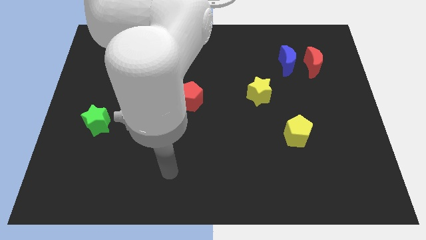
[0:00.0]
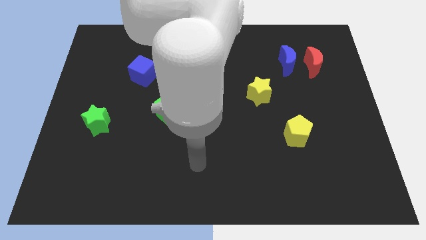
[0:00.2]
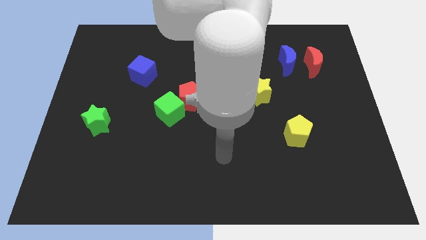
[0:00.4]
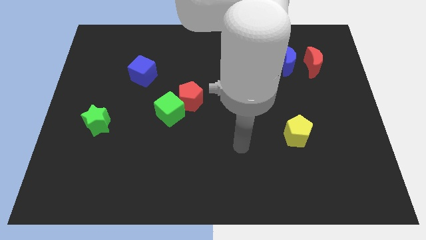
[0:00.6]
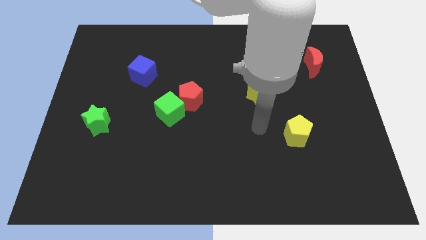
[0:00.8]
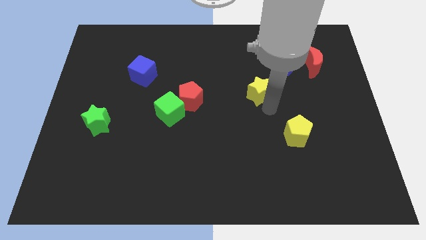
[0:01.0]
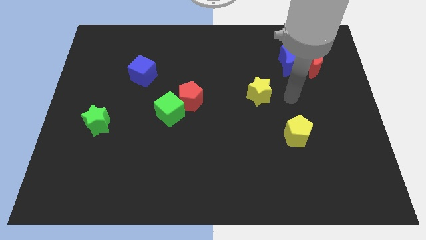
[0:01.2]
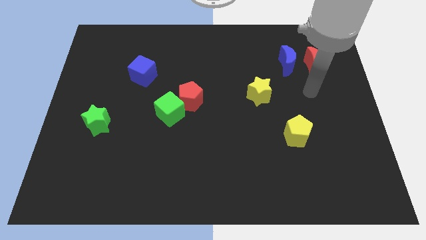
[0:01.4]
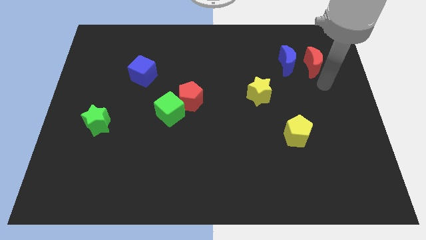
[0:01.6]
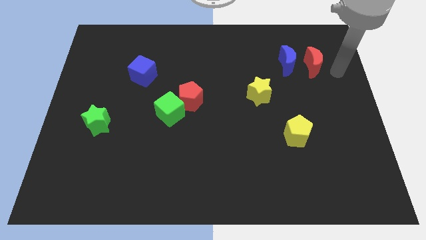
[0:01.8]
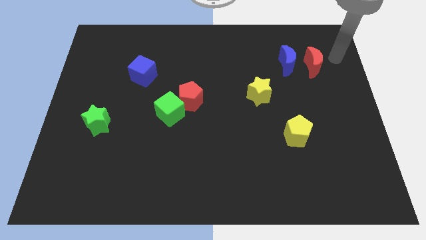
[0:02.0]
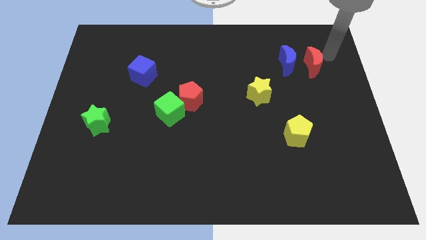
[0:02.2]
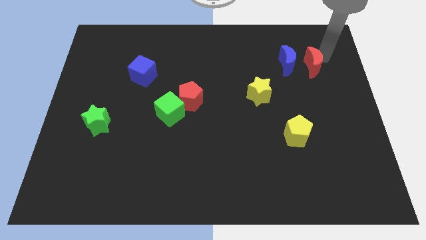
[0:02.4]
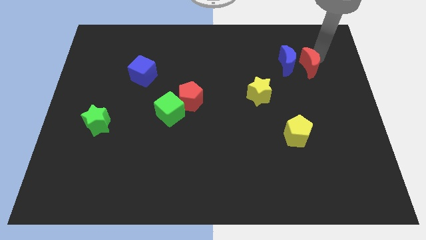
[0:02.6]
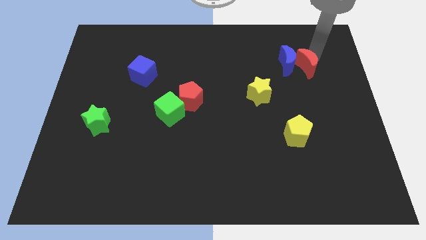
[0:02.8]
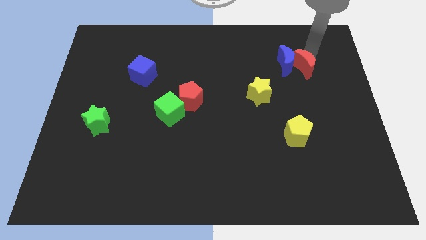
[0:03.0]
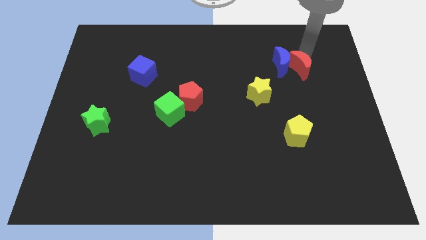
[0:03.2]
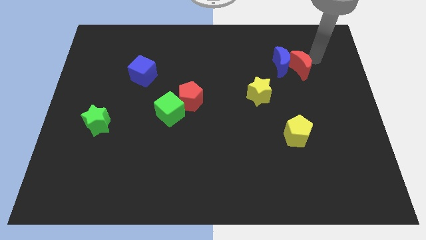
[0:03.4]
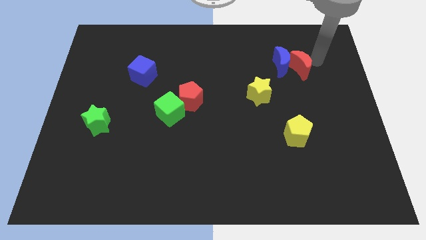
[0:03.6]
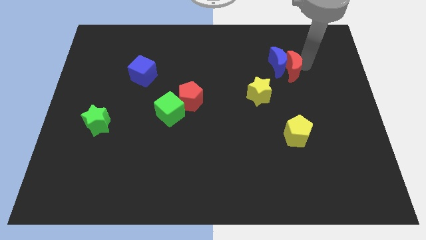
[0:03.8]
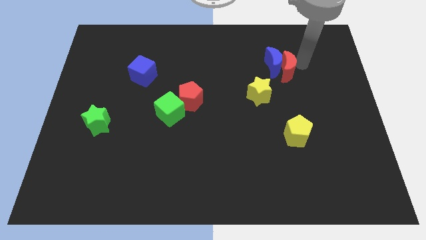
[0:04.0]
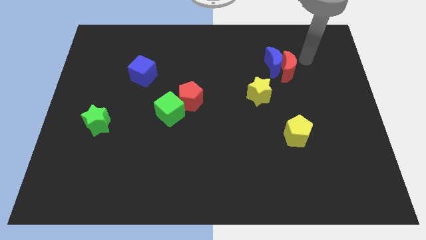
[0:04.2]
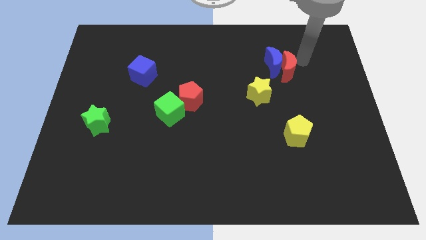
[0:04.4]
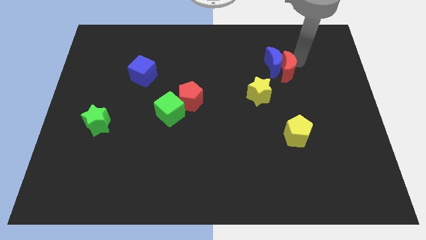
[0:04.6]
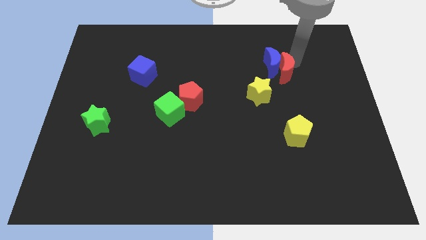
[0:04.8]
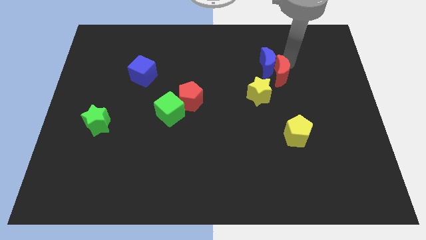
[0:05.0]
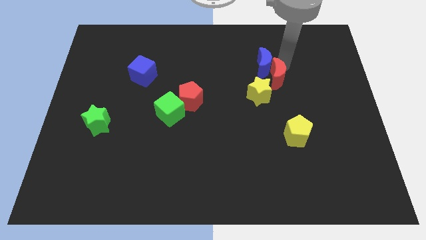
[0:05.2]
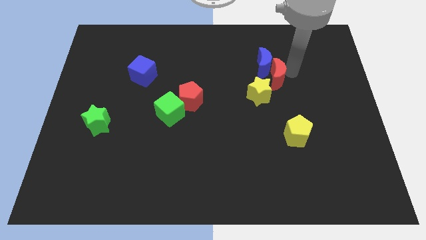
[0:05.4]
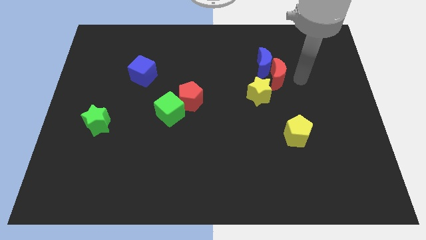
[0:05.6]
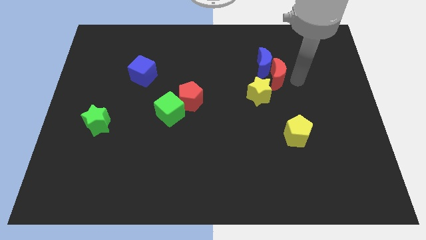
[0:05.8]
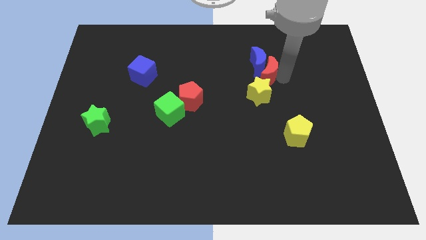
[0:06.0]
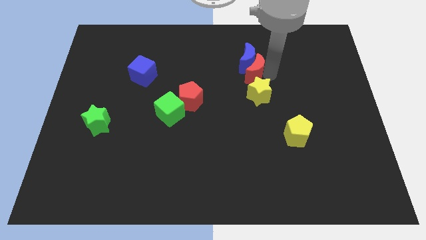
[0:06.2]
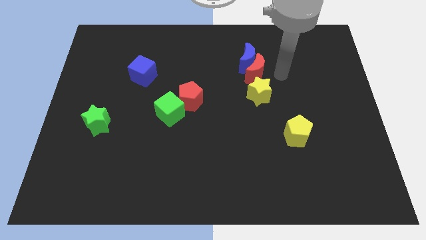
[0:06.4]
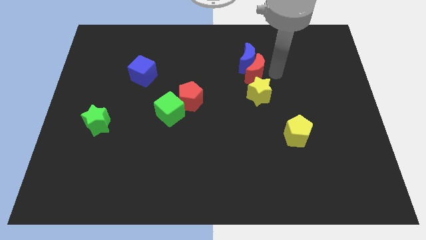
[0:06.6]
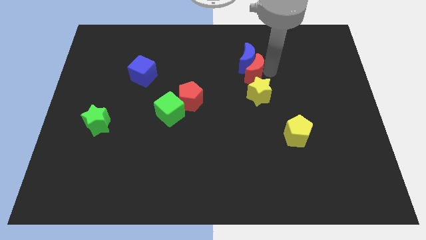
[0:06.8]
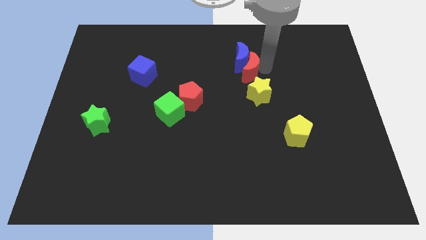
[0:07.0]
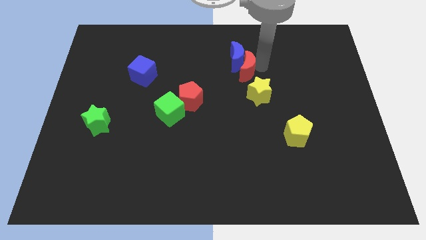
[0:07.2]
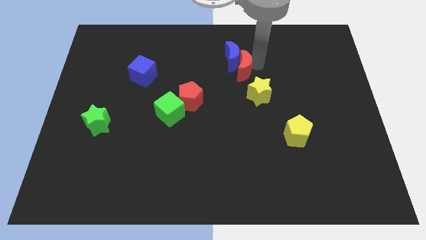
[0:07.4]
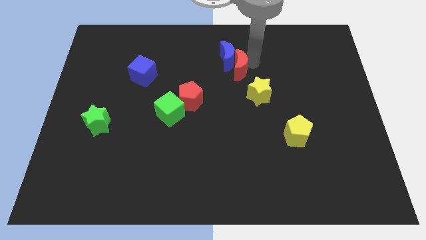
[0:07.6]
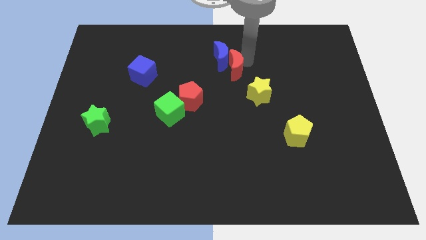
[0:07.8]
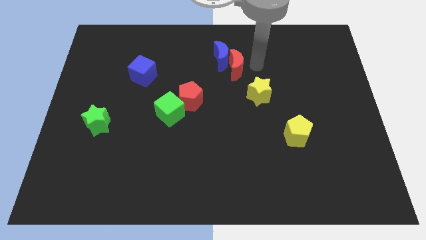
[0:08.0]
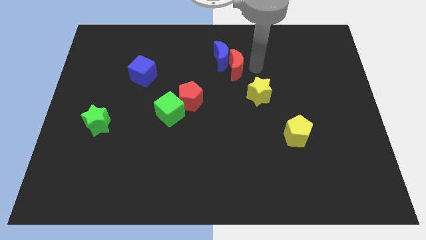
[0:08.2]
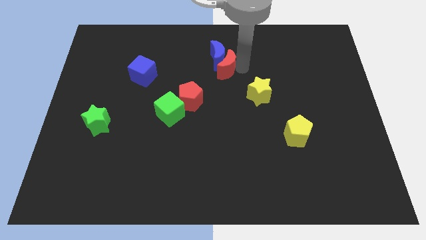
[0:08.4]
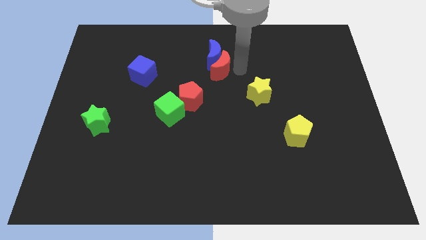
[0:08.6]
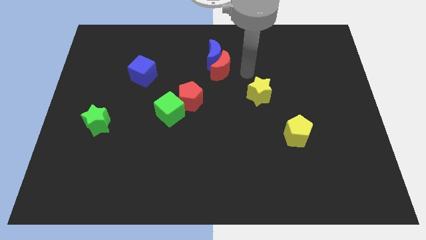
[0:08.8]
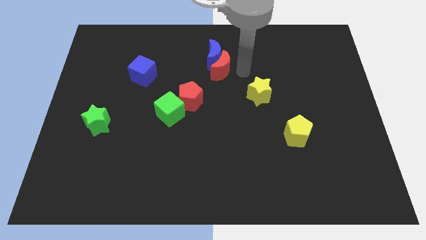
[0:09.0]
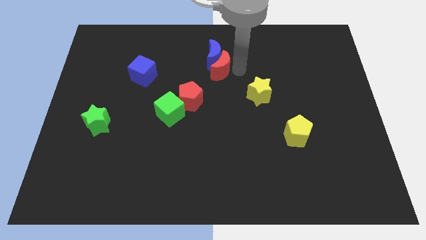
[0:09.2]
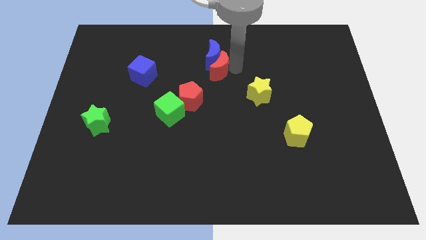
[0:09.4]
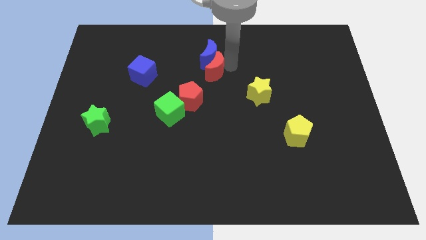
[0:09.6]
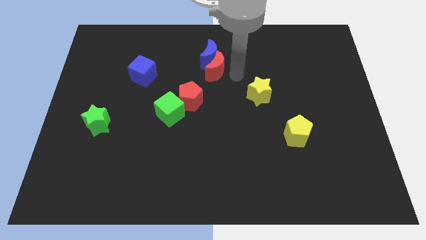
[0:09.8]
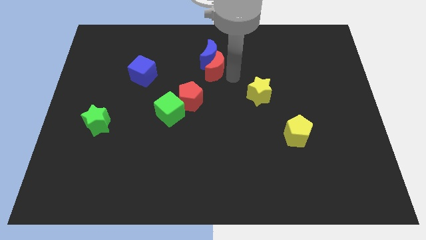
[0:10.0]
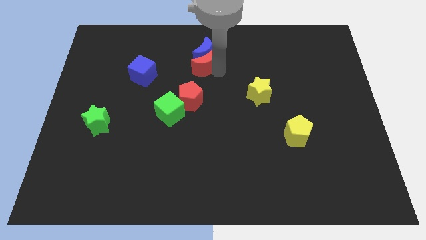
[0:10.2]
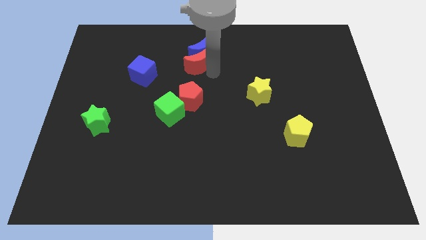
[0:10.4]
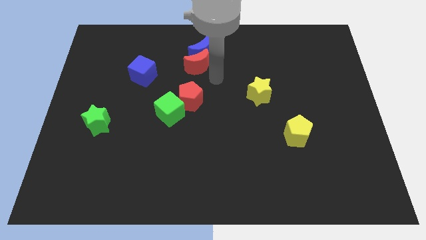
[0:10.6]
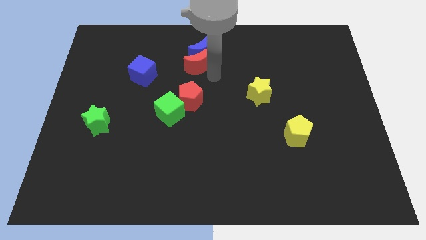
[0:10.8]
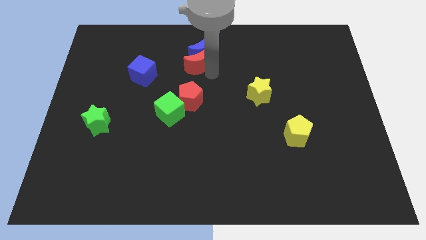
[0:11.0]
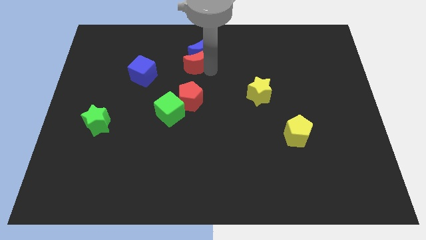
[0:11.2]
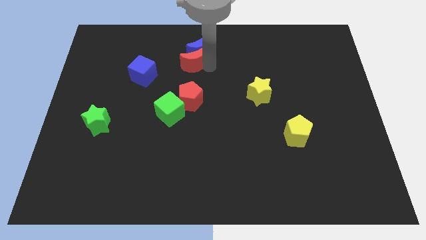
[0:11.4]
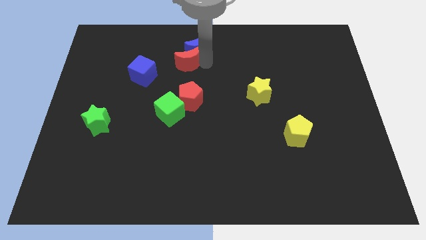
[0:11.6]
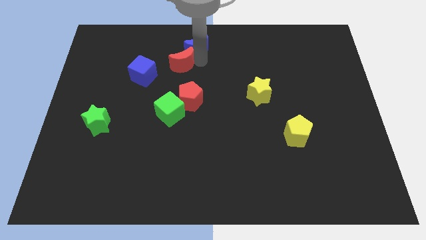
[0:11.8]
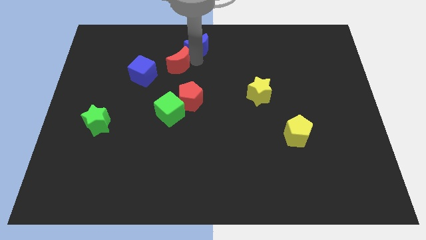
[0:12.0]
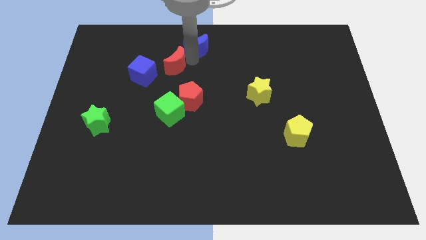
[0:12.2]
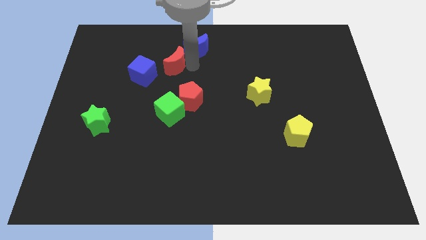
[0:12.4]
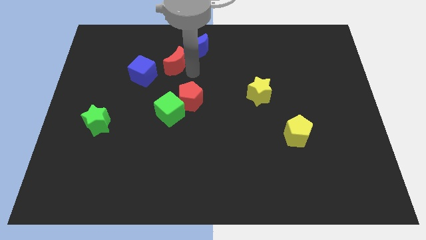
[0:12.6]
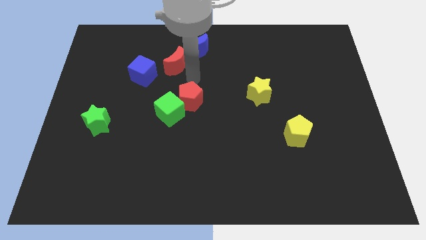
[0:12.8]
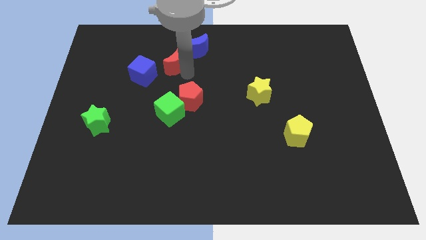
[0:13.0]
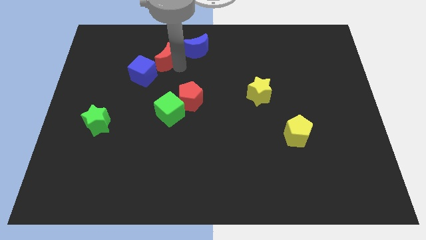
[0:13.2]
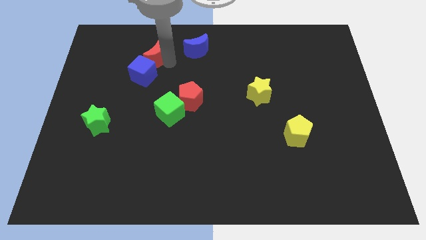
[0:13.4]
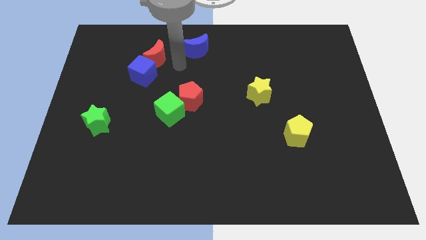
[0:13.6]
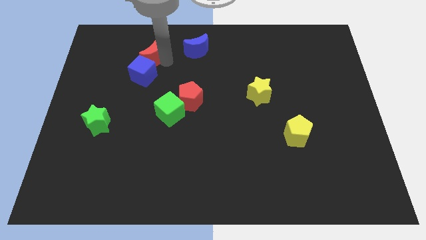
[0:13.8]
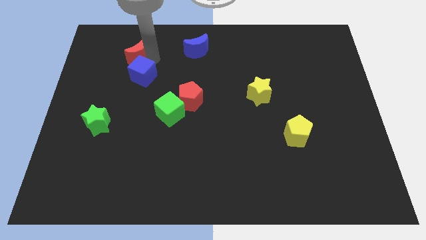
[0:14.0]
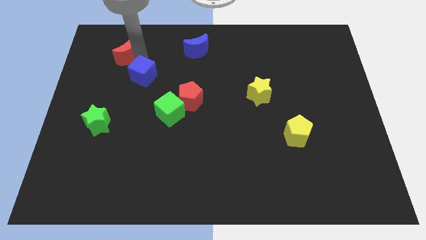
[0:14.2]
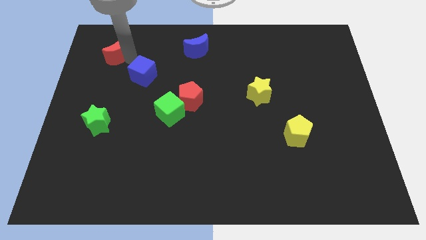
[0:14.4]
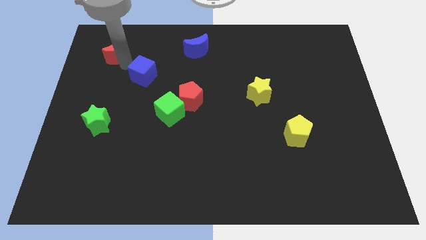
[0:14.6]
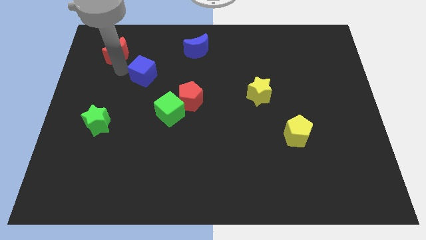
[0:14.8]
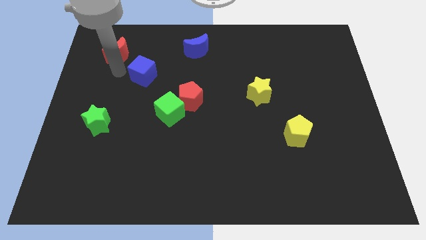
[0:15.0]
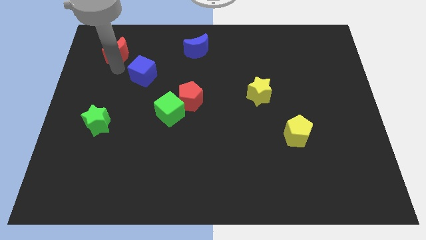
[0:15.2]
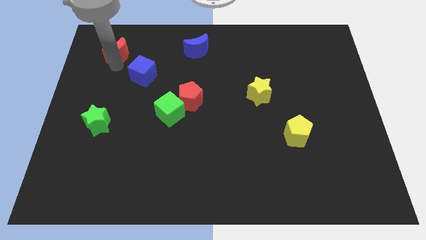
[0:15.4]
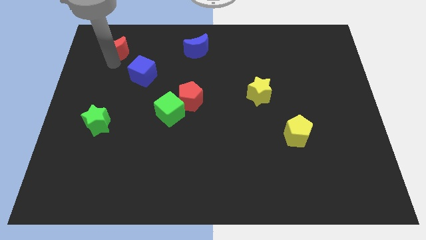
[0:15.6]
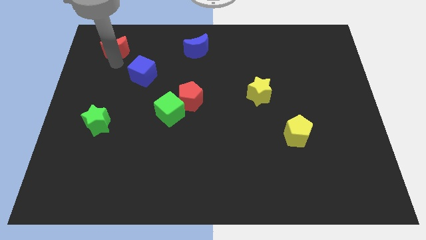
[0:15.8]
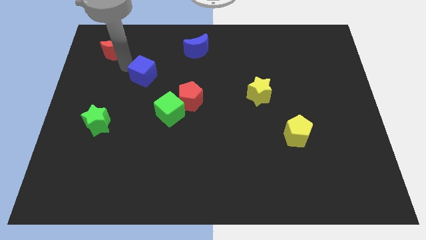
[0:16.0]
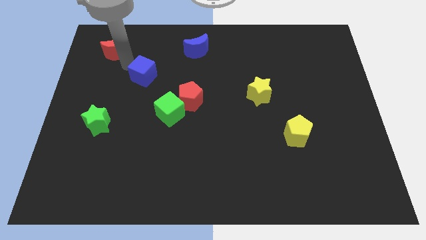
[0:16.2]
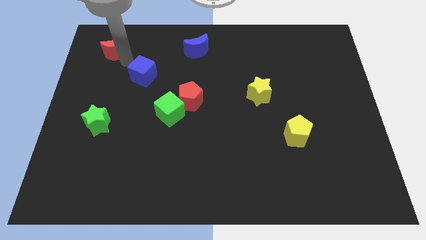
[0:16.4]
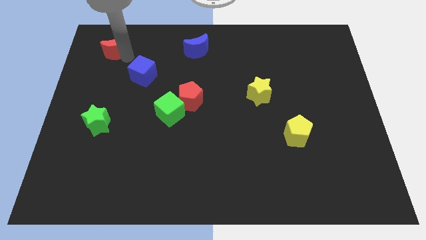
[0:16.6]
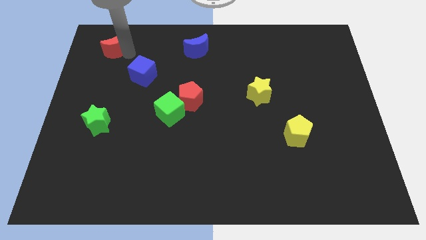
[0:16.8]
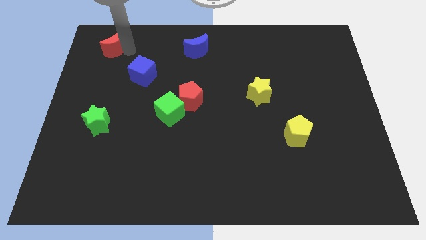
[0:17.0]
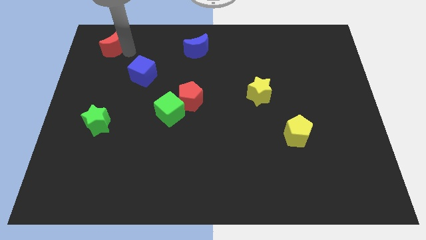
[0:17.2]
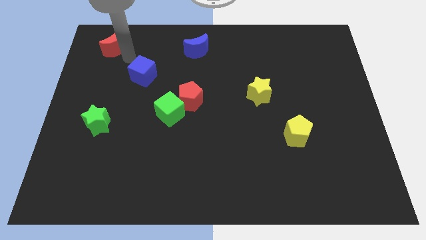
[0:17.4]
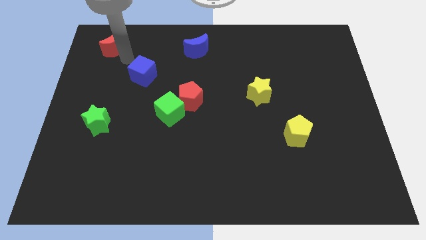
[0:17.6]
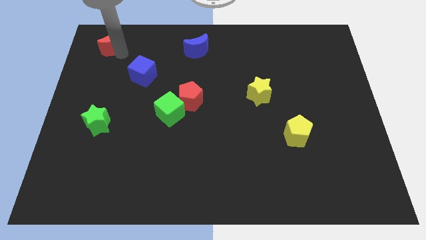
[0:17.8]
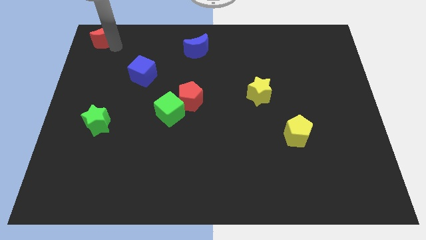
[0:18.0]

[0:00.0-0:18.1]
slide the red moon to the top left
